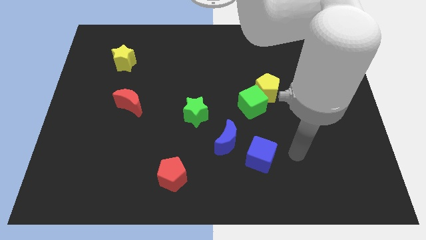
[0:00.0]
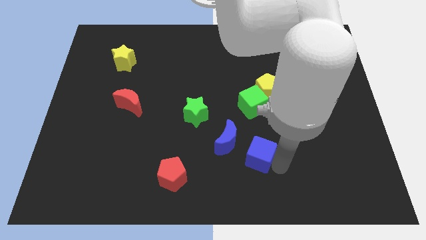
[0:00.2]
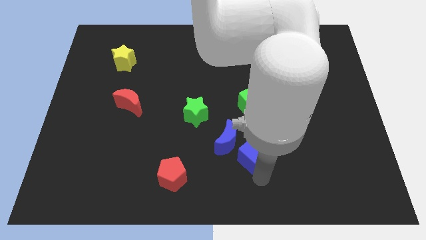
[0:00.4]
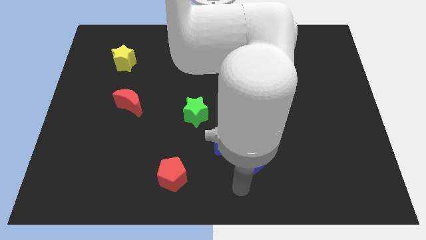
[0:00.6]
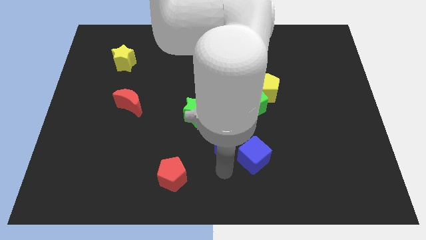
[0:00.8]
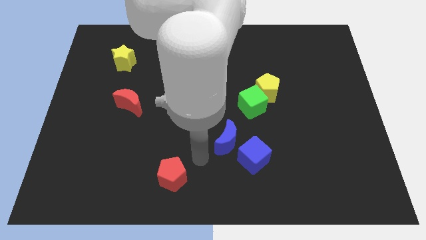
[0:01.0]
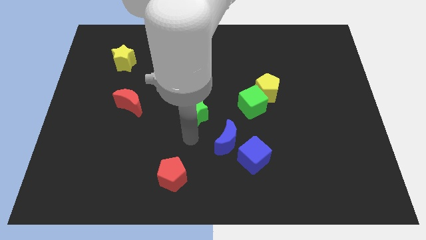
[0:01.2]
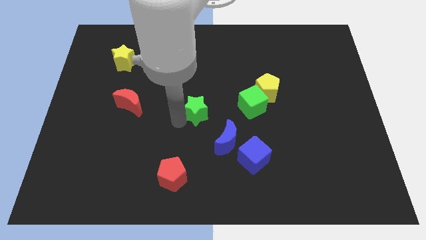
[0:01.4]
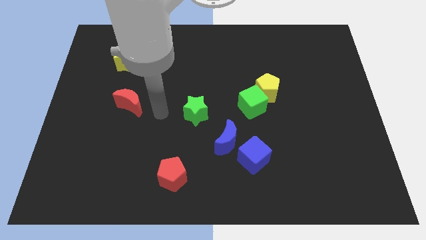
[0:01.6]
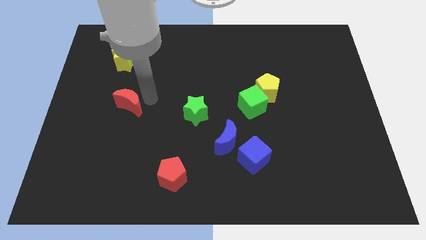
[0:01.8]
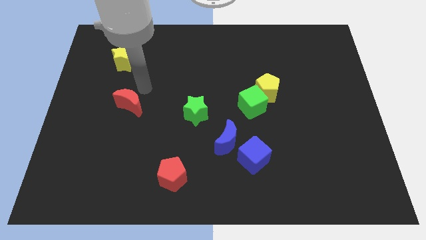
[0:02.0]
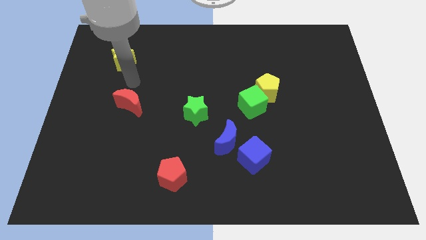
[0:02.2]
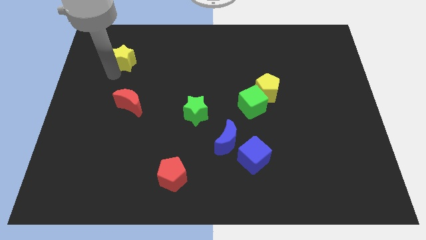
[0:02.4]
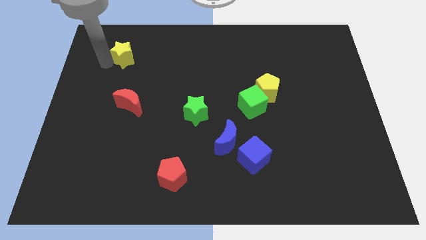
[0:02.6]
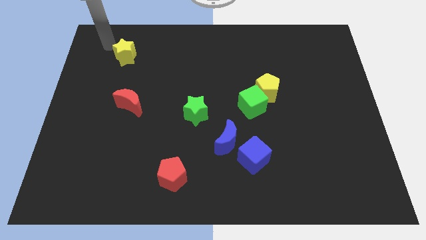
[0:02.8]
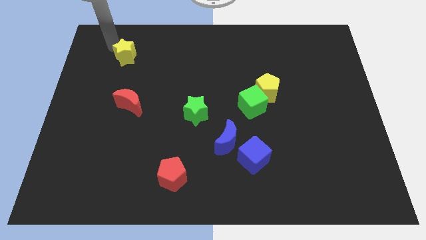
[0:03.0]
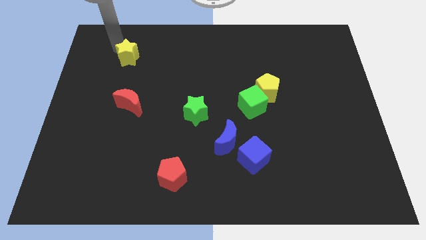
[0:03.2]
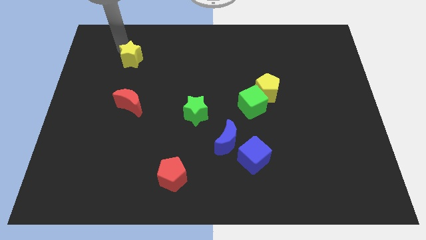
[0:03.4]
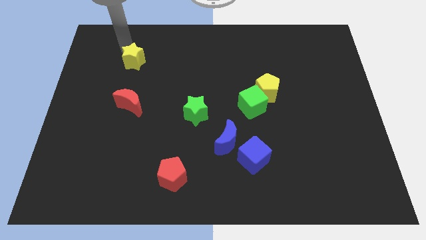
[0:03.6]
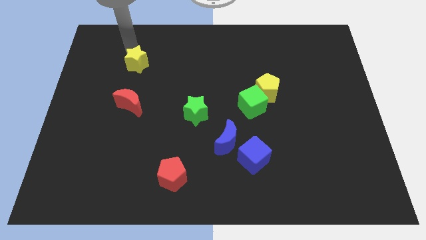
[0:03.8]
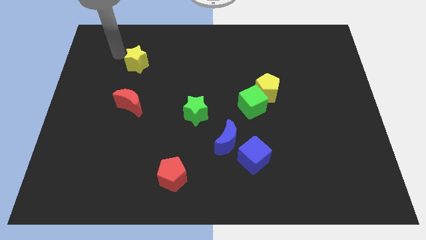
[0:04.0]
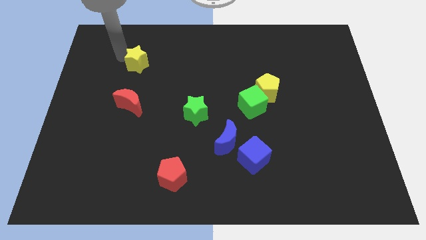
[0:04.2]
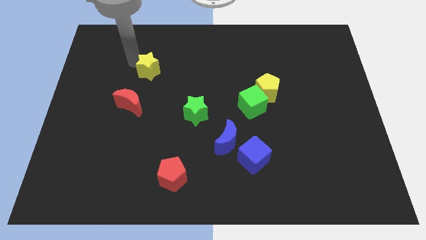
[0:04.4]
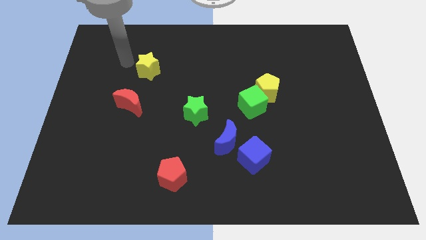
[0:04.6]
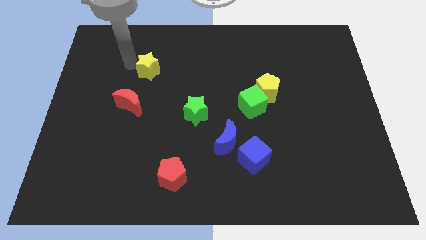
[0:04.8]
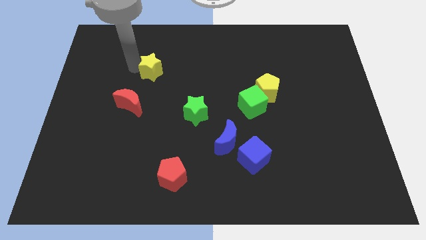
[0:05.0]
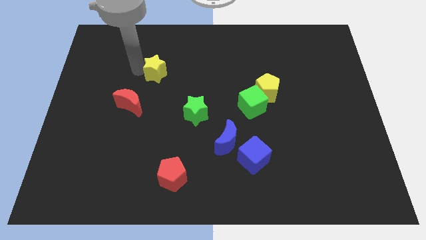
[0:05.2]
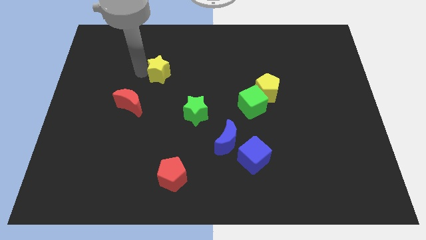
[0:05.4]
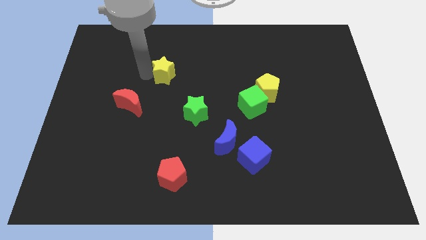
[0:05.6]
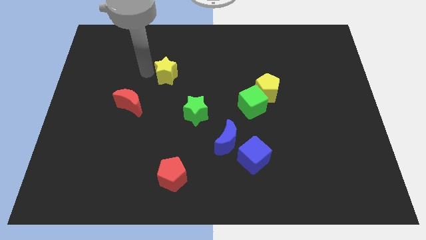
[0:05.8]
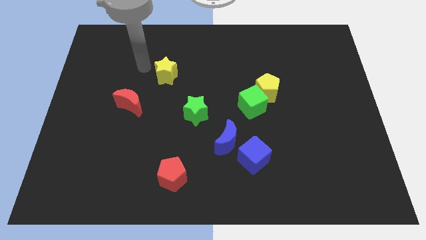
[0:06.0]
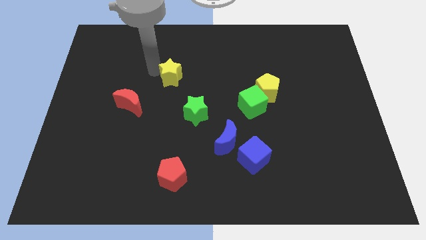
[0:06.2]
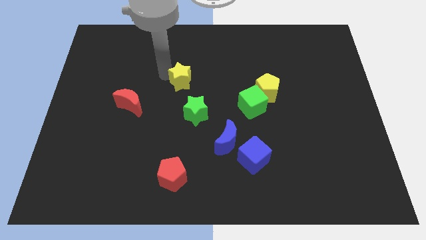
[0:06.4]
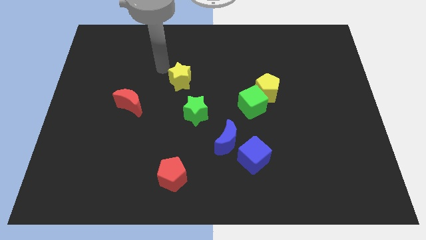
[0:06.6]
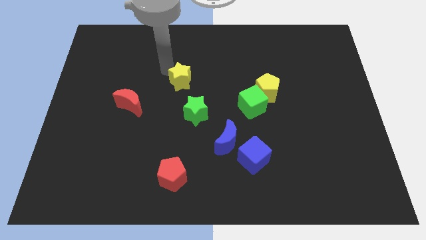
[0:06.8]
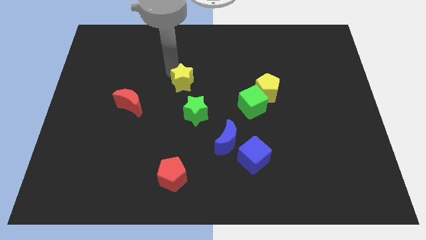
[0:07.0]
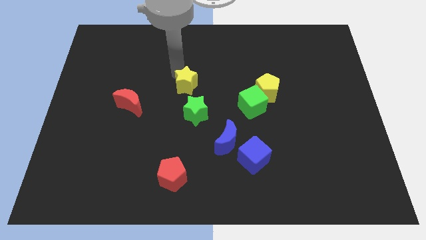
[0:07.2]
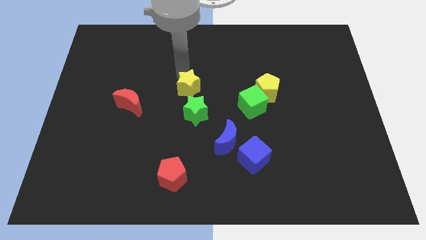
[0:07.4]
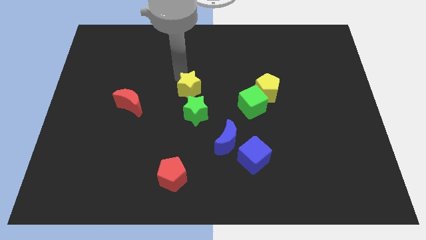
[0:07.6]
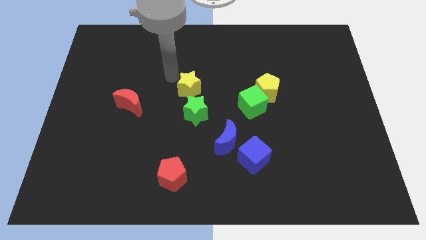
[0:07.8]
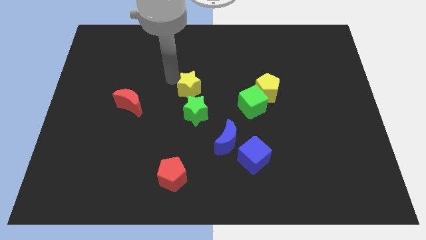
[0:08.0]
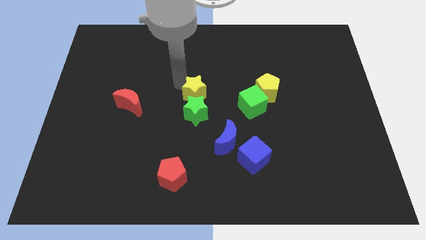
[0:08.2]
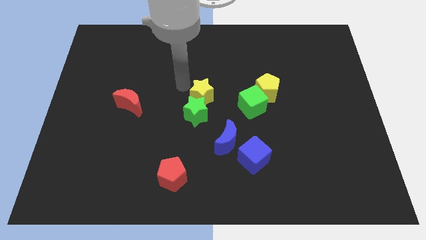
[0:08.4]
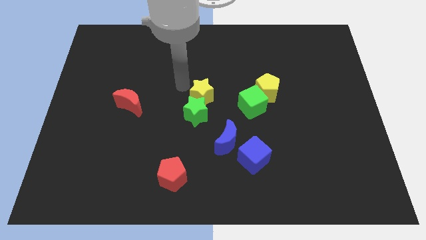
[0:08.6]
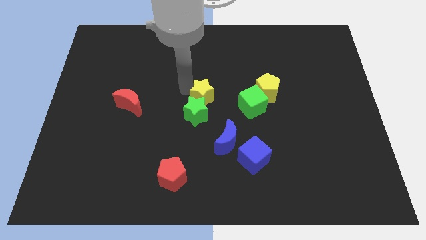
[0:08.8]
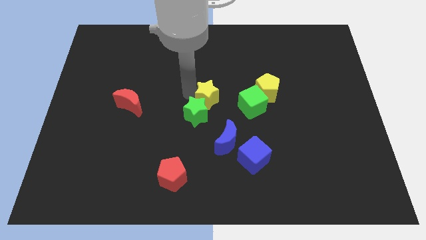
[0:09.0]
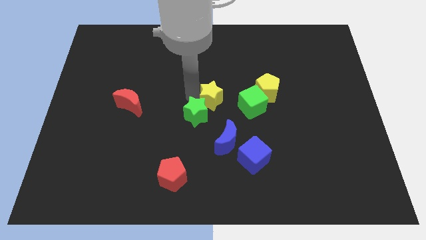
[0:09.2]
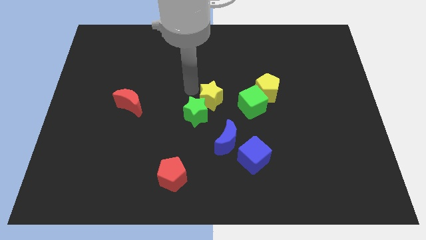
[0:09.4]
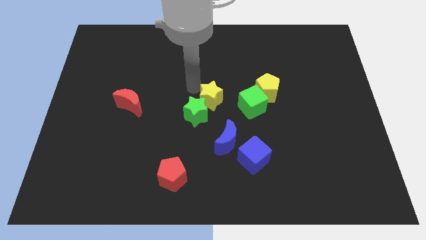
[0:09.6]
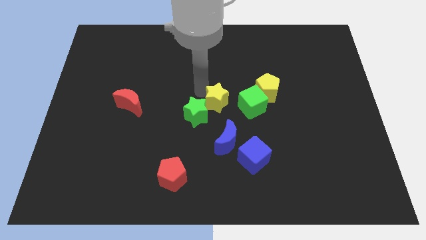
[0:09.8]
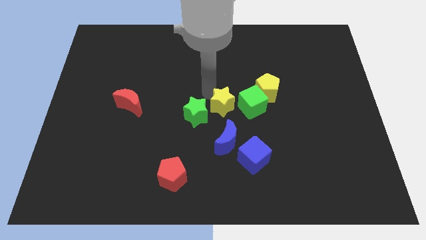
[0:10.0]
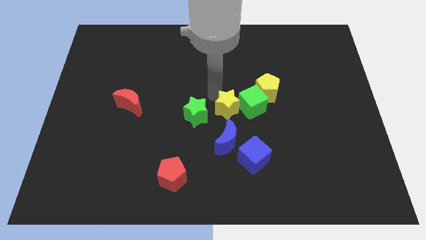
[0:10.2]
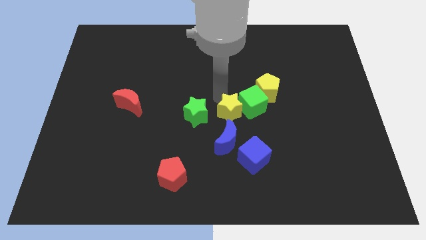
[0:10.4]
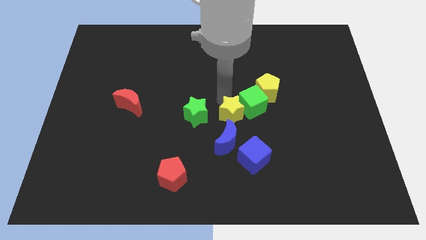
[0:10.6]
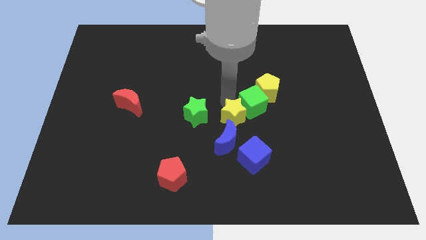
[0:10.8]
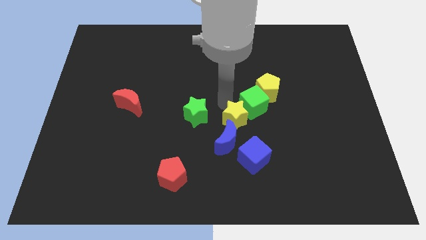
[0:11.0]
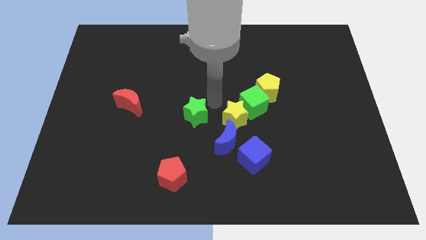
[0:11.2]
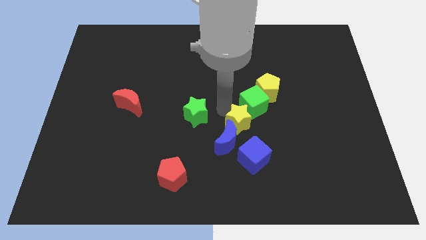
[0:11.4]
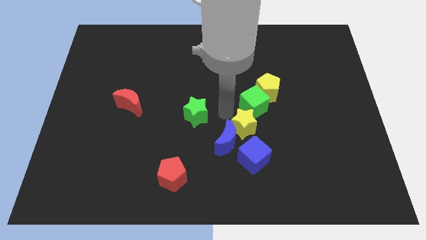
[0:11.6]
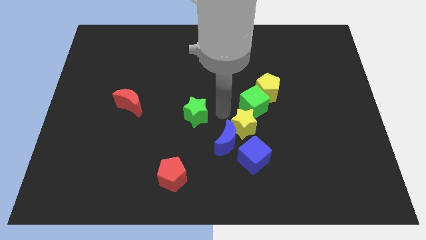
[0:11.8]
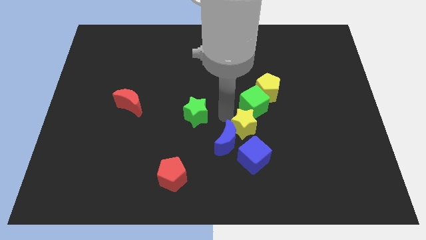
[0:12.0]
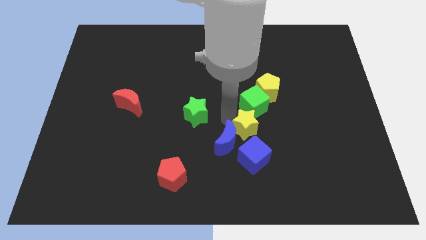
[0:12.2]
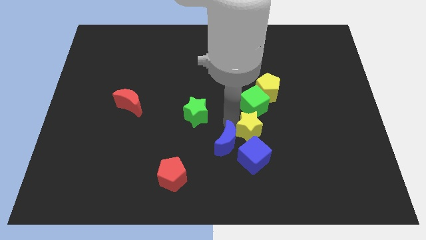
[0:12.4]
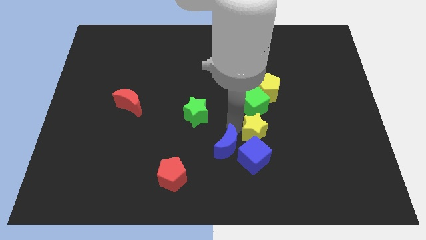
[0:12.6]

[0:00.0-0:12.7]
put the yellow star to the top right of the blue cube
